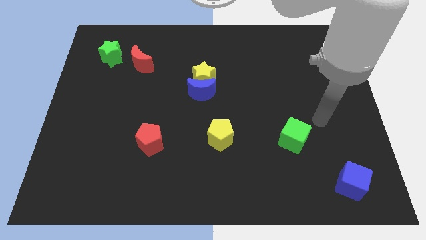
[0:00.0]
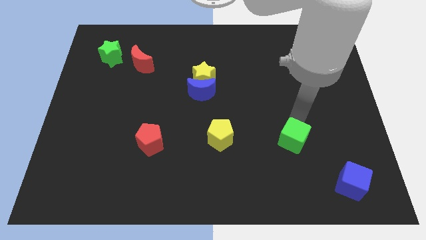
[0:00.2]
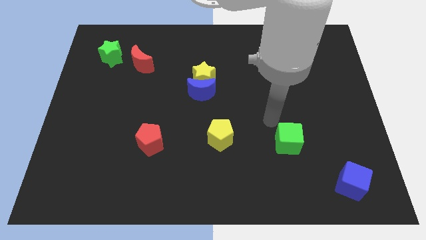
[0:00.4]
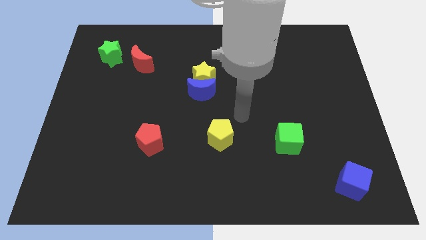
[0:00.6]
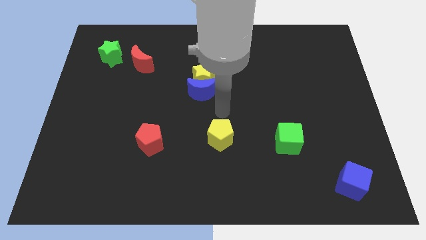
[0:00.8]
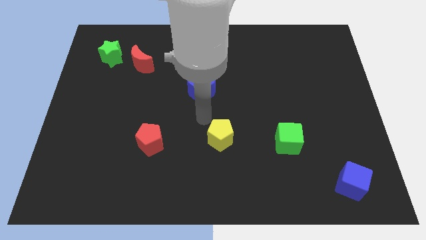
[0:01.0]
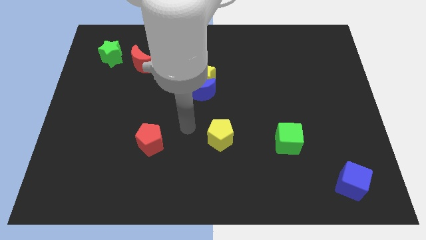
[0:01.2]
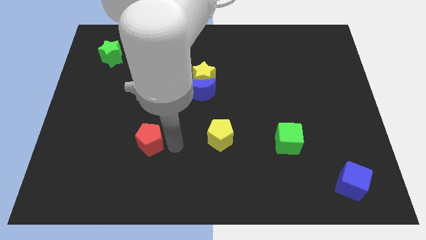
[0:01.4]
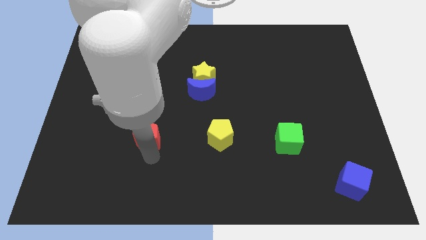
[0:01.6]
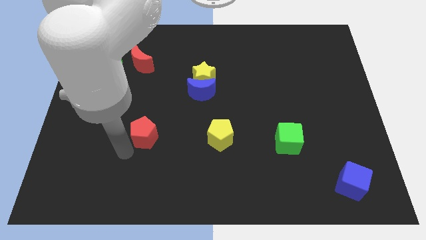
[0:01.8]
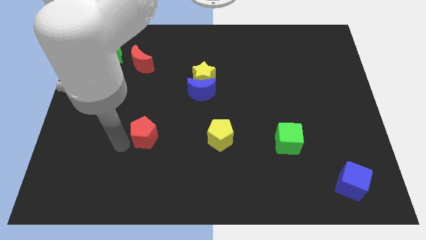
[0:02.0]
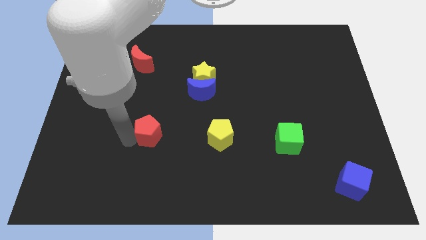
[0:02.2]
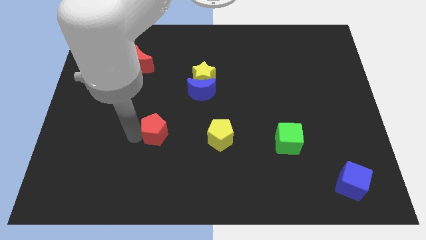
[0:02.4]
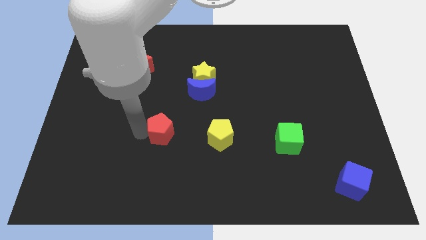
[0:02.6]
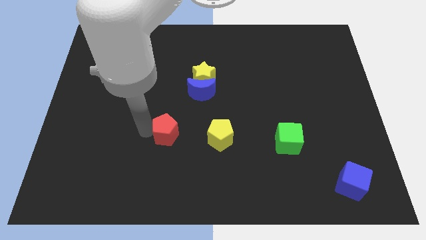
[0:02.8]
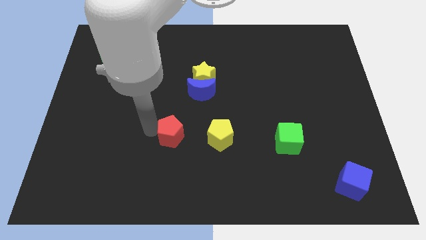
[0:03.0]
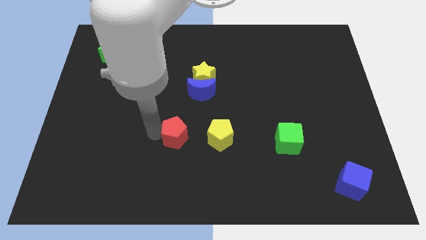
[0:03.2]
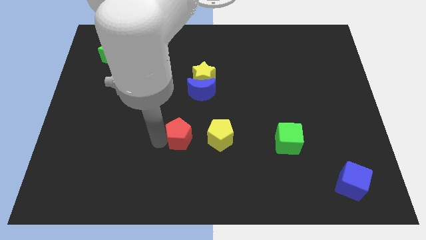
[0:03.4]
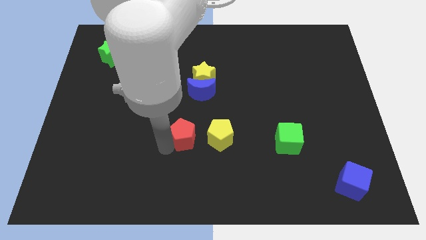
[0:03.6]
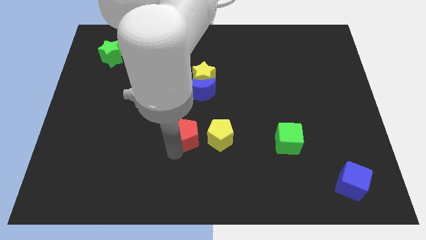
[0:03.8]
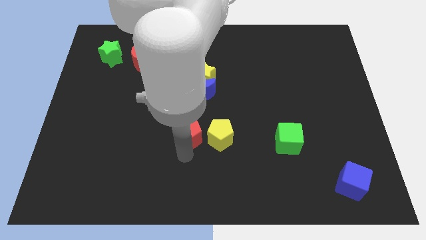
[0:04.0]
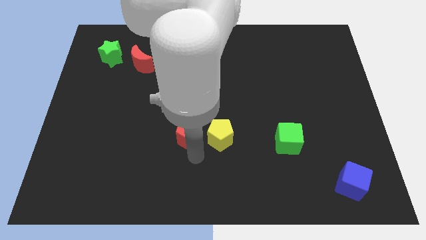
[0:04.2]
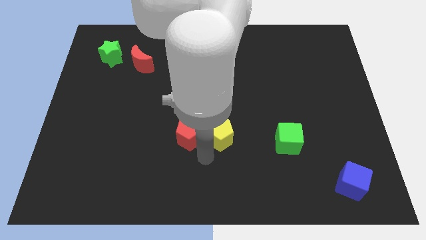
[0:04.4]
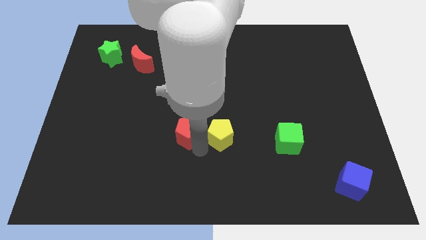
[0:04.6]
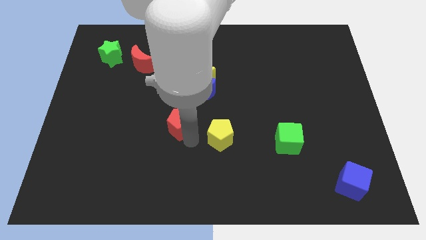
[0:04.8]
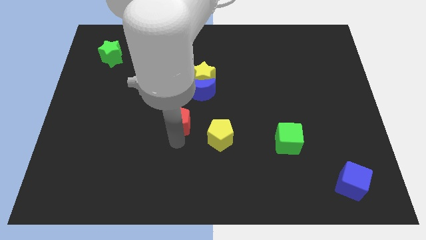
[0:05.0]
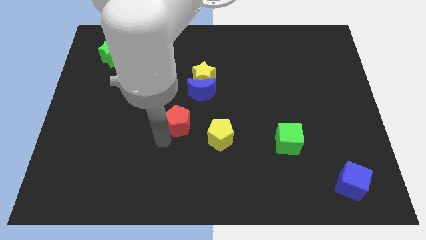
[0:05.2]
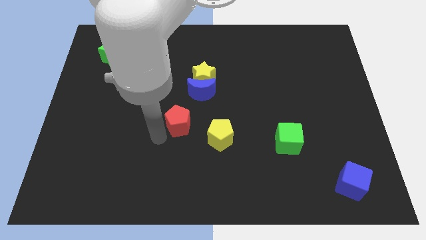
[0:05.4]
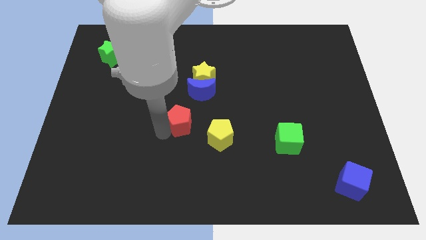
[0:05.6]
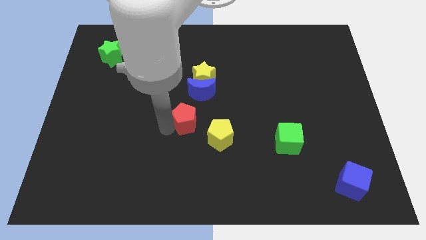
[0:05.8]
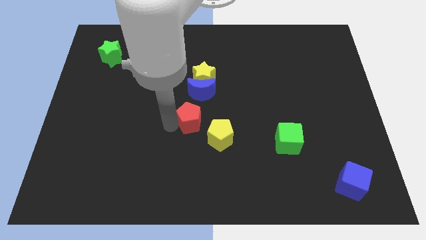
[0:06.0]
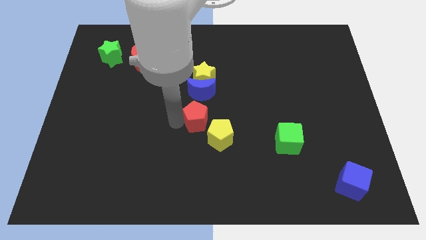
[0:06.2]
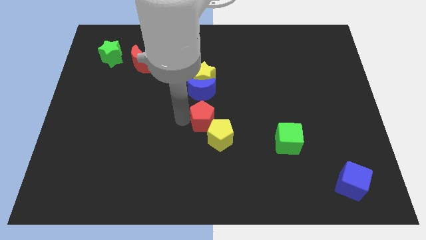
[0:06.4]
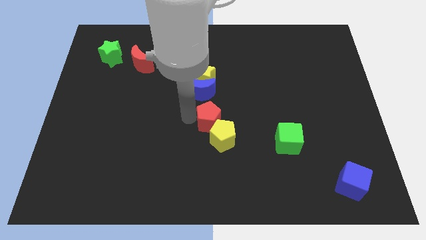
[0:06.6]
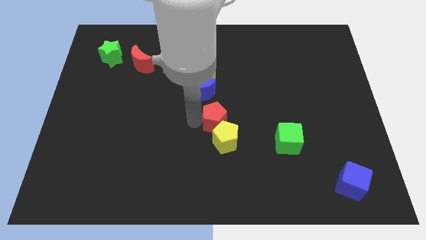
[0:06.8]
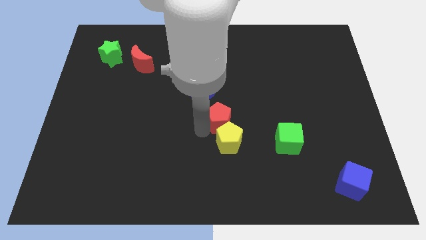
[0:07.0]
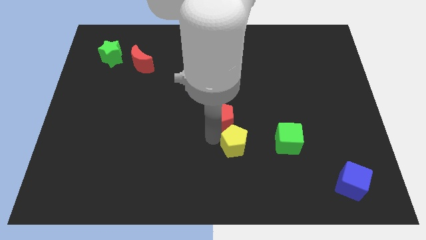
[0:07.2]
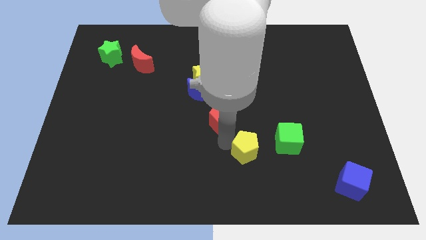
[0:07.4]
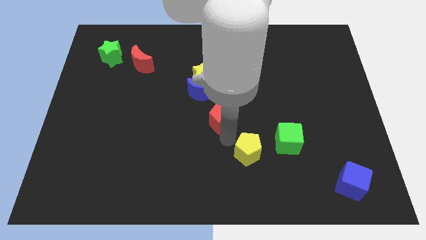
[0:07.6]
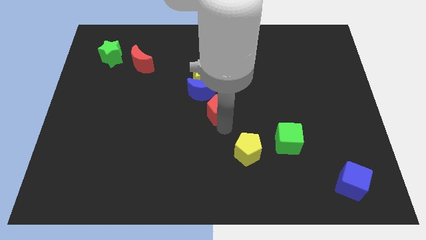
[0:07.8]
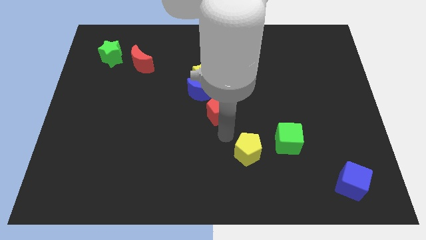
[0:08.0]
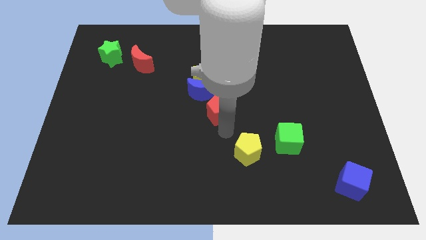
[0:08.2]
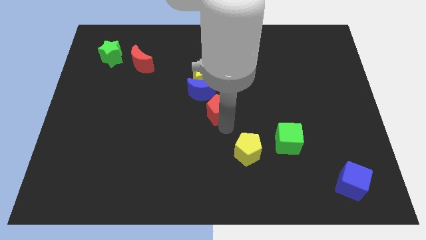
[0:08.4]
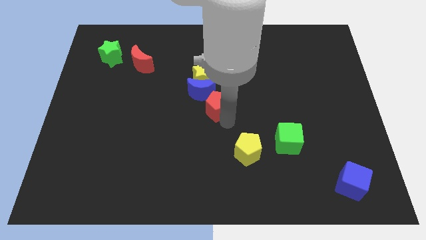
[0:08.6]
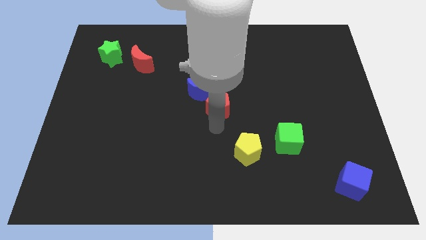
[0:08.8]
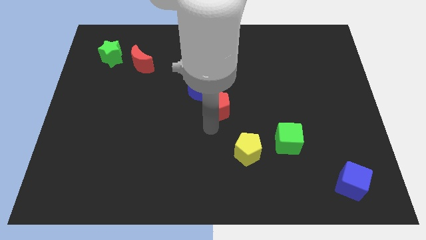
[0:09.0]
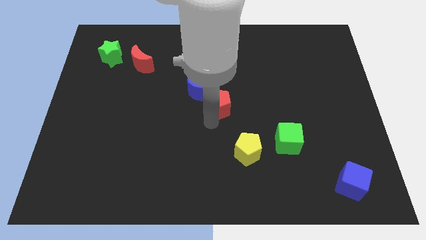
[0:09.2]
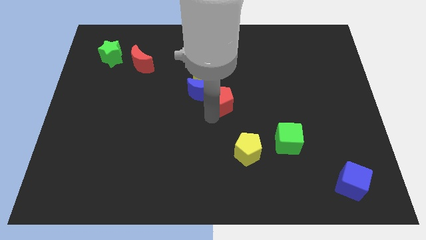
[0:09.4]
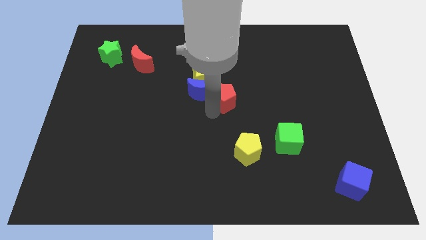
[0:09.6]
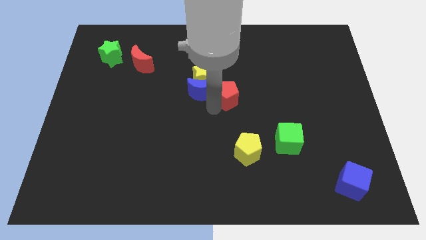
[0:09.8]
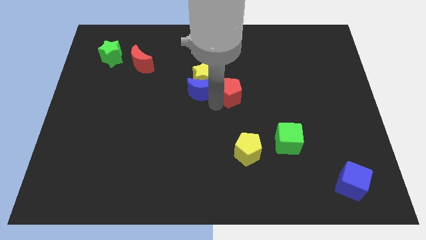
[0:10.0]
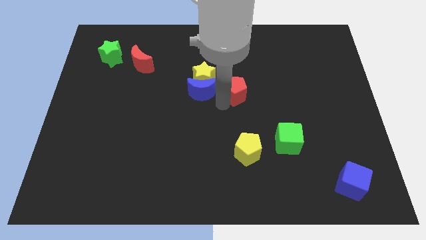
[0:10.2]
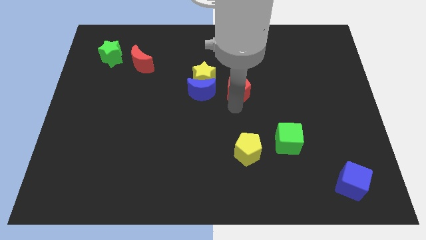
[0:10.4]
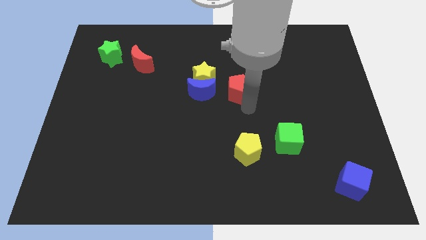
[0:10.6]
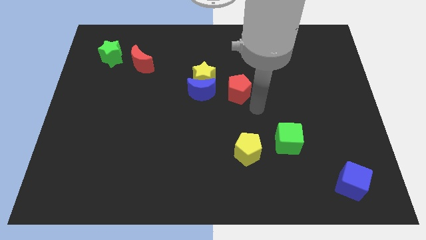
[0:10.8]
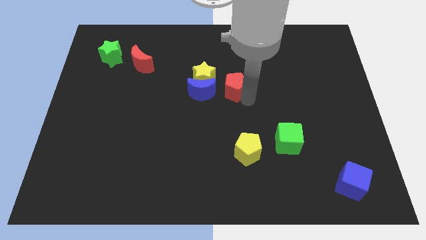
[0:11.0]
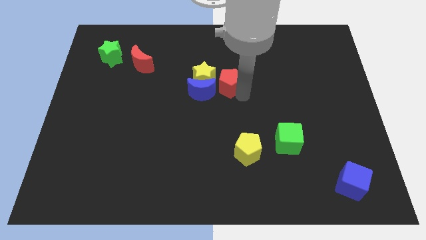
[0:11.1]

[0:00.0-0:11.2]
put the red pentagon to the top right side of the blue moon

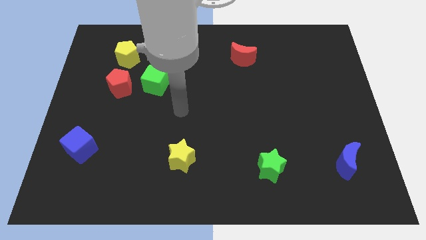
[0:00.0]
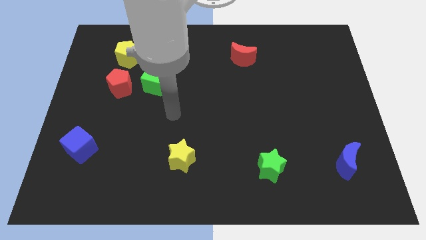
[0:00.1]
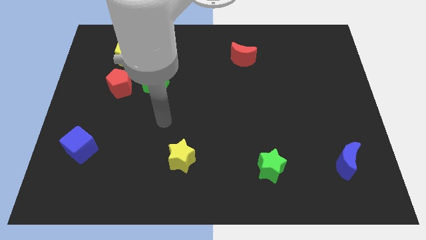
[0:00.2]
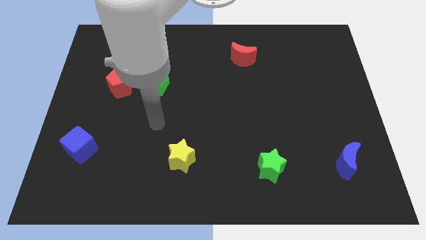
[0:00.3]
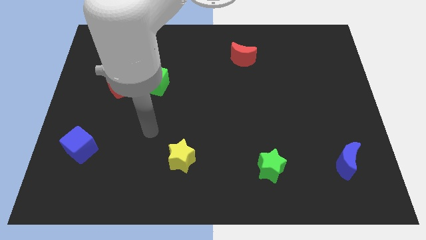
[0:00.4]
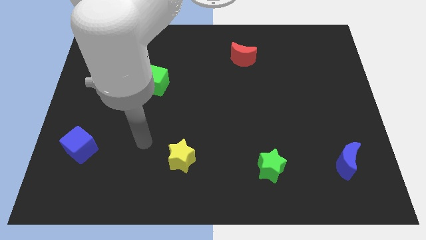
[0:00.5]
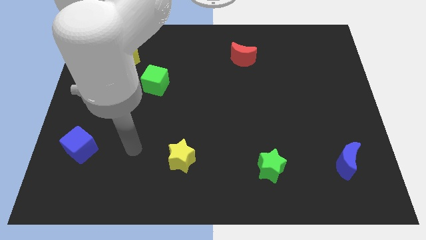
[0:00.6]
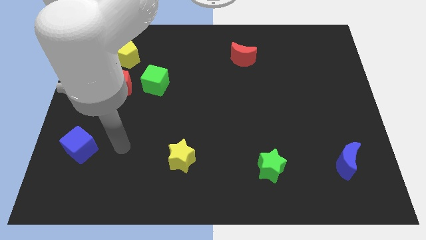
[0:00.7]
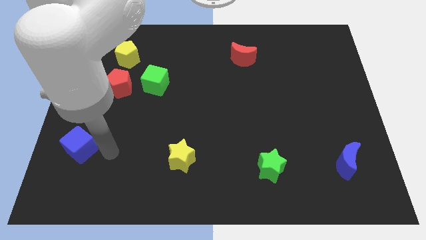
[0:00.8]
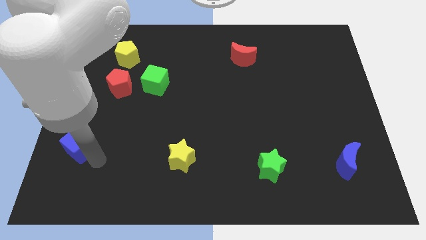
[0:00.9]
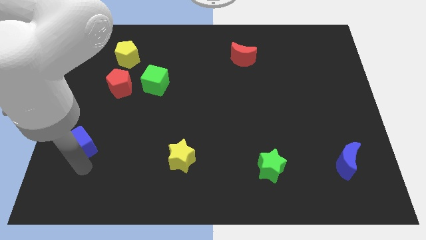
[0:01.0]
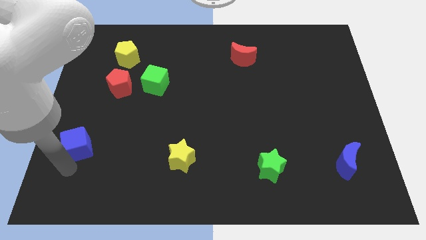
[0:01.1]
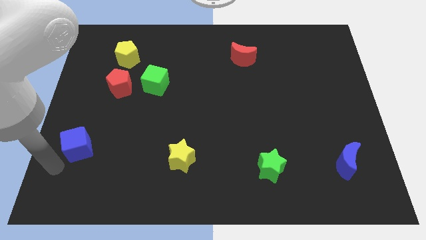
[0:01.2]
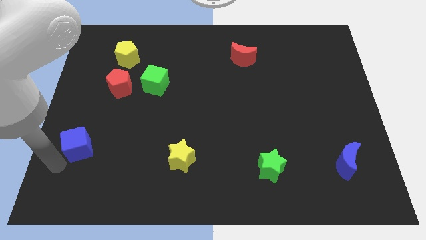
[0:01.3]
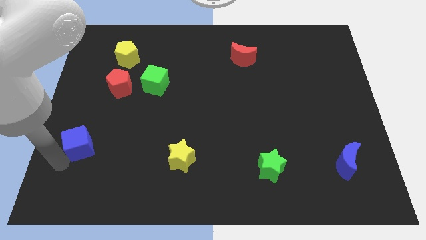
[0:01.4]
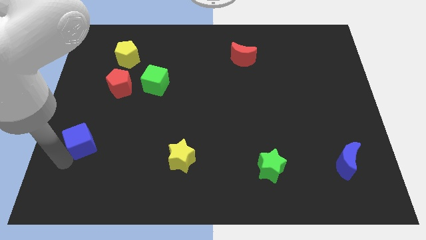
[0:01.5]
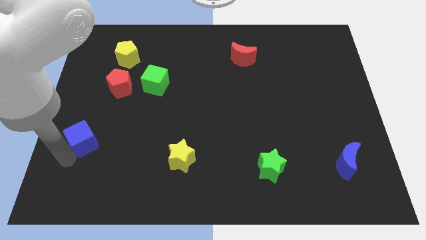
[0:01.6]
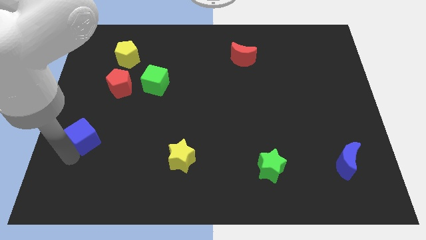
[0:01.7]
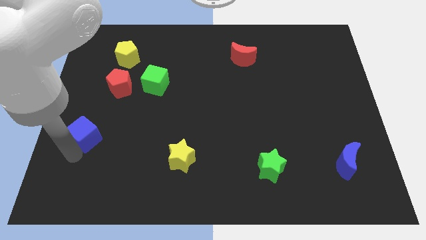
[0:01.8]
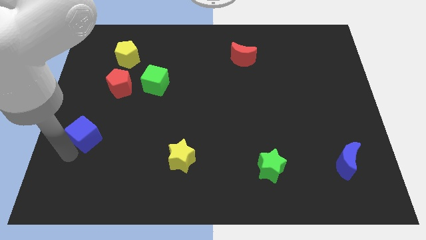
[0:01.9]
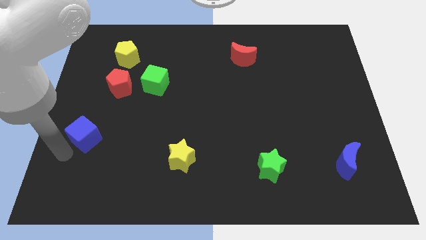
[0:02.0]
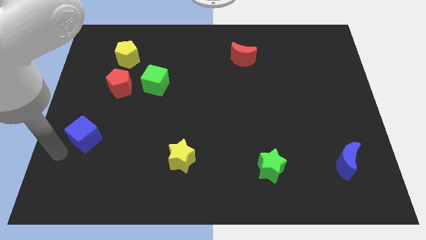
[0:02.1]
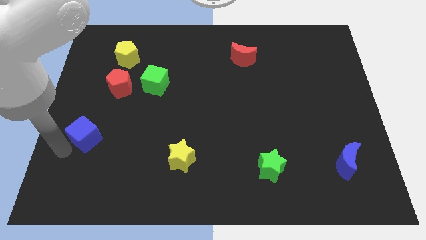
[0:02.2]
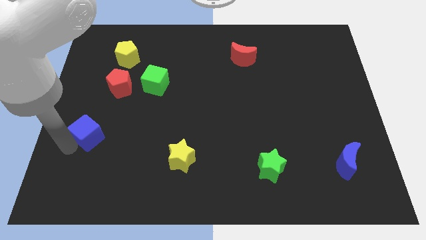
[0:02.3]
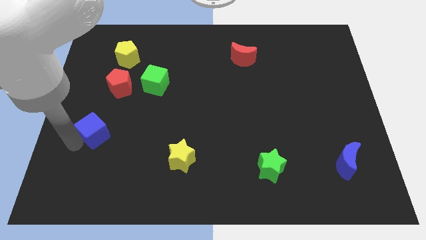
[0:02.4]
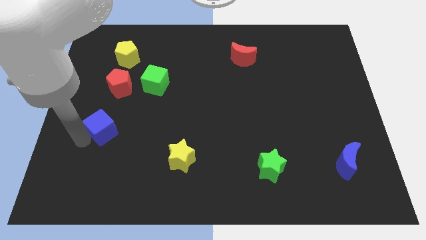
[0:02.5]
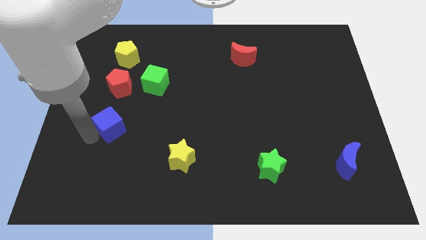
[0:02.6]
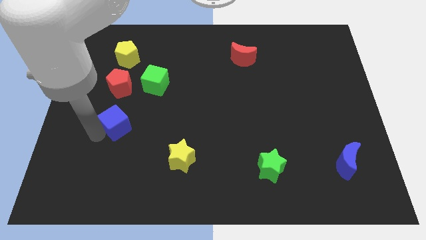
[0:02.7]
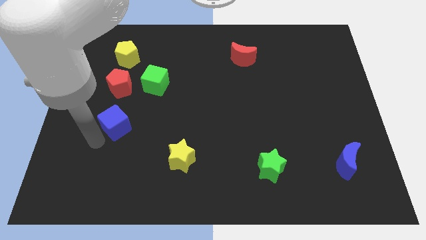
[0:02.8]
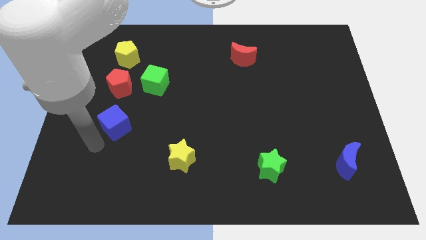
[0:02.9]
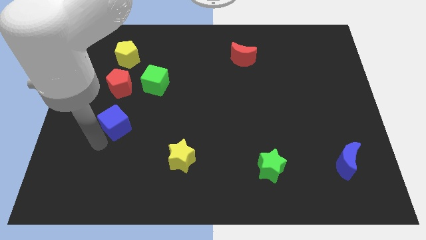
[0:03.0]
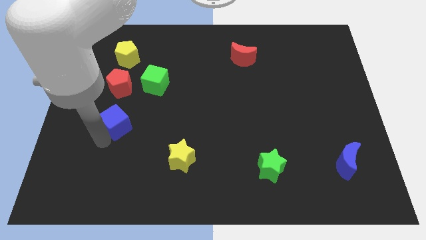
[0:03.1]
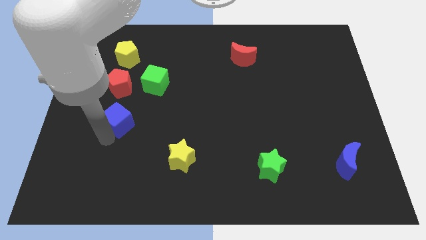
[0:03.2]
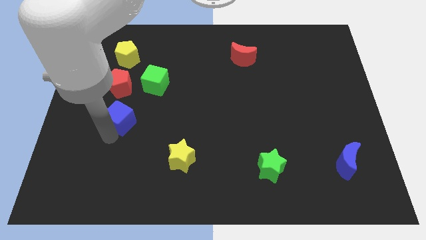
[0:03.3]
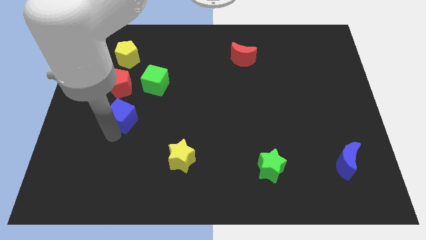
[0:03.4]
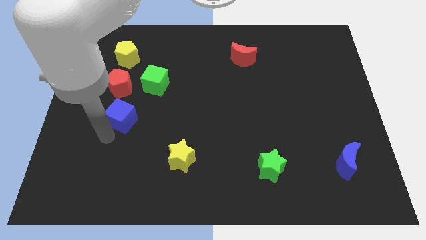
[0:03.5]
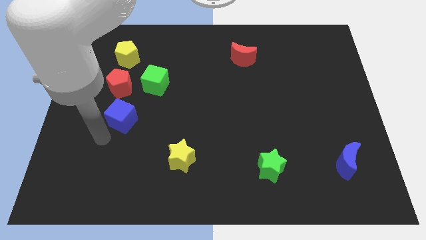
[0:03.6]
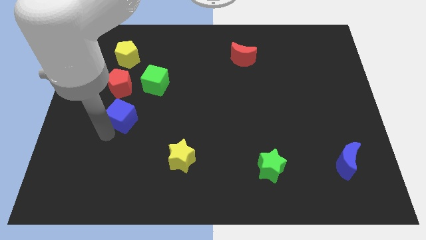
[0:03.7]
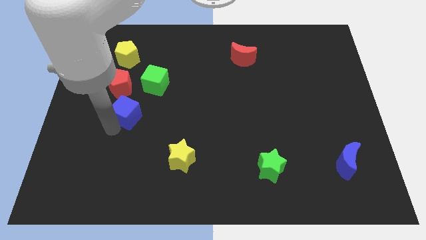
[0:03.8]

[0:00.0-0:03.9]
put the blue cube to the bottom right side of the red pentagon
